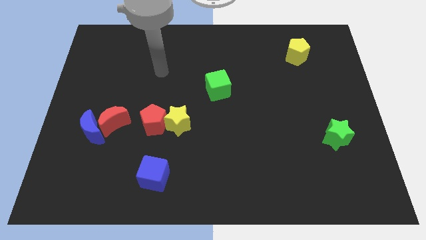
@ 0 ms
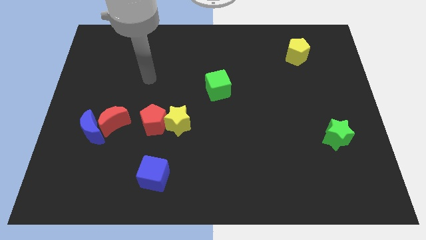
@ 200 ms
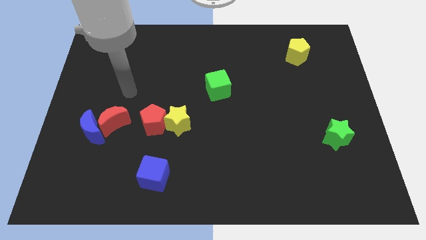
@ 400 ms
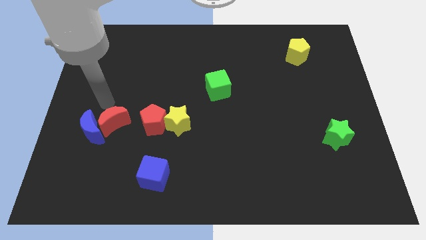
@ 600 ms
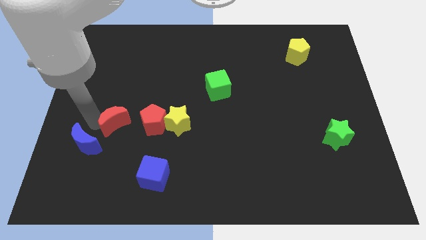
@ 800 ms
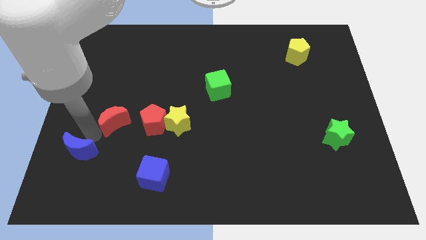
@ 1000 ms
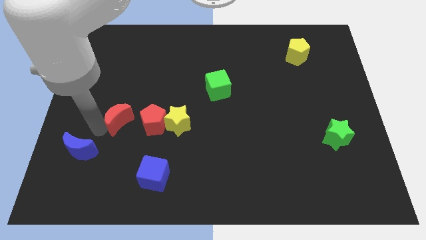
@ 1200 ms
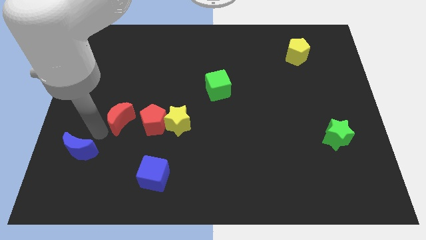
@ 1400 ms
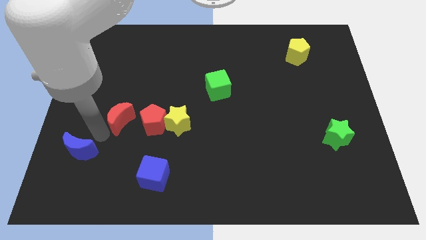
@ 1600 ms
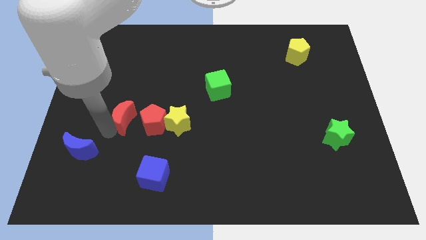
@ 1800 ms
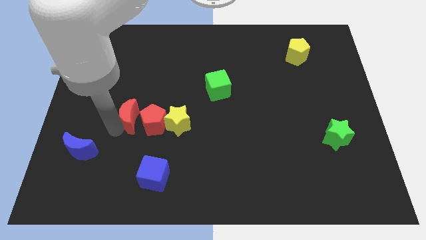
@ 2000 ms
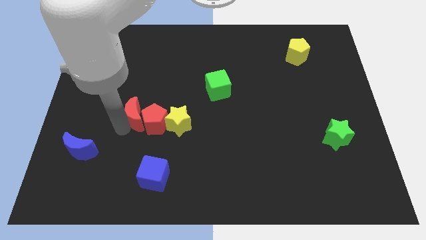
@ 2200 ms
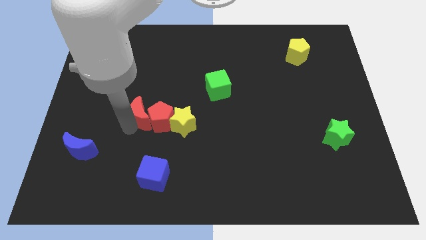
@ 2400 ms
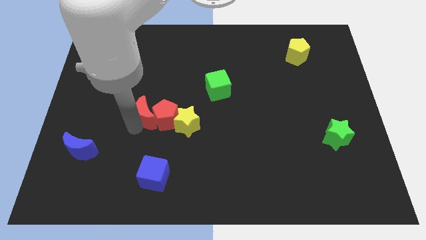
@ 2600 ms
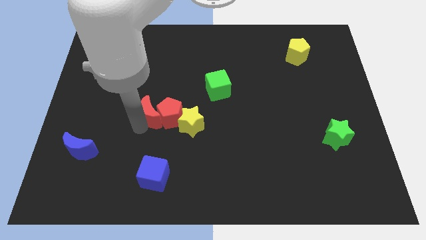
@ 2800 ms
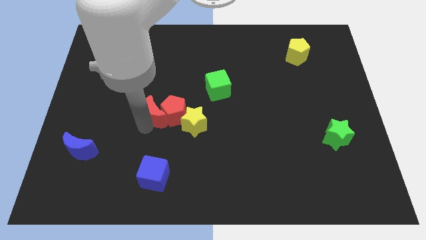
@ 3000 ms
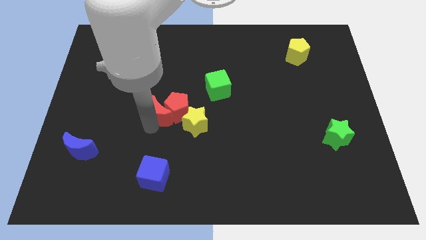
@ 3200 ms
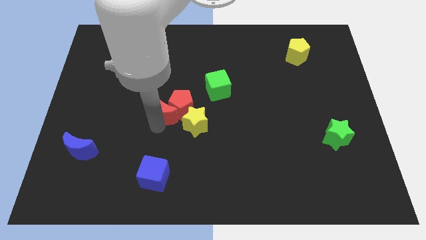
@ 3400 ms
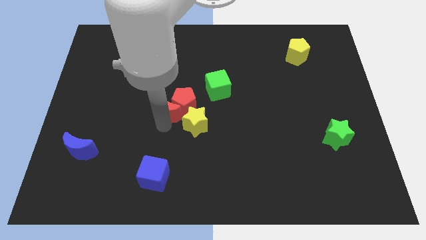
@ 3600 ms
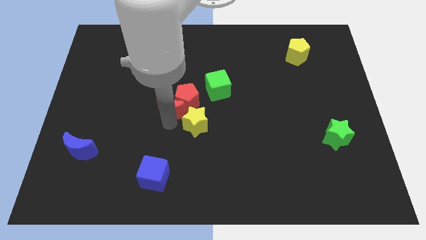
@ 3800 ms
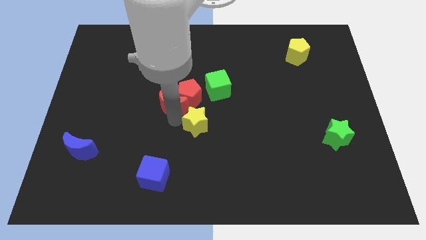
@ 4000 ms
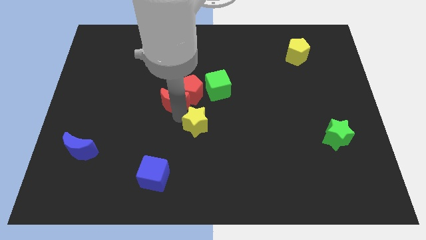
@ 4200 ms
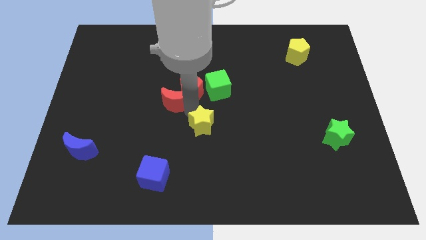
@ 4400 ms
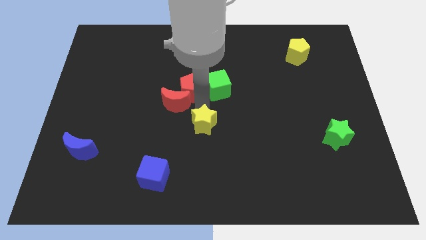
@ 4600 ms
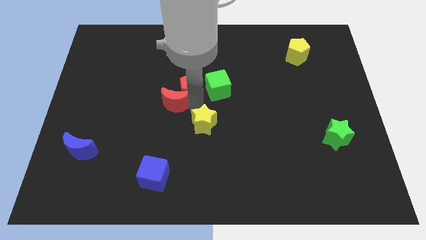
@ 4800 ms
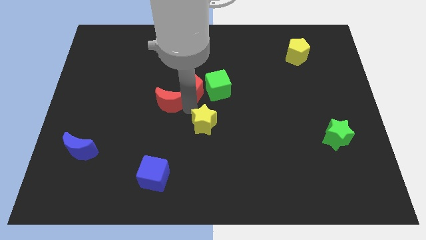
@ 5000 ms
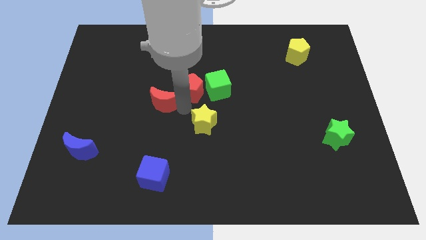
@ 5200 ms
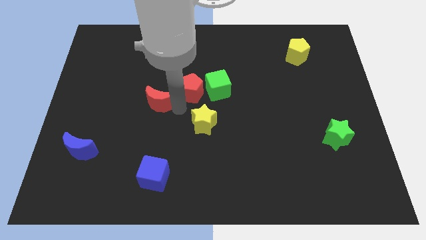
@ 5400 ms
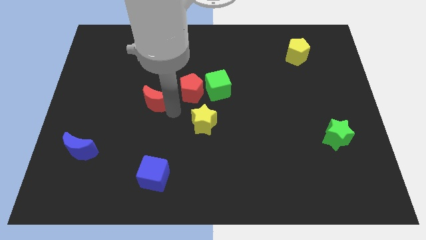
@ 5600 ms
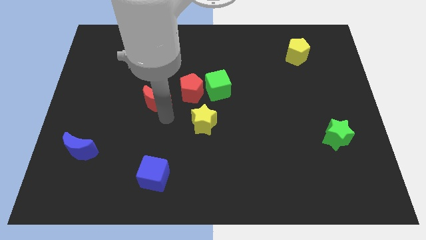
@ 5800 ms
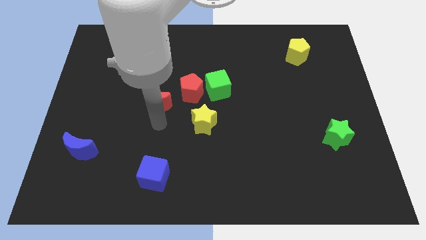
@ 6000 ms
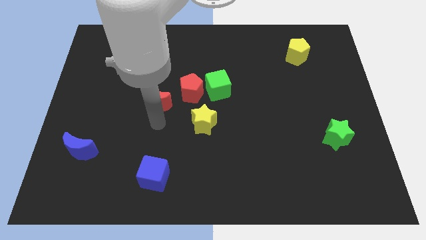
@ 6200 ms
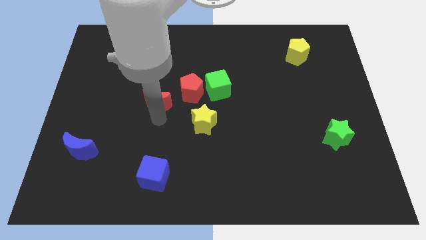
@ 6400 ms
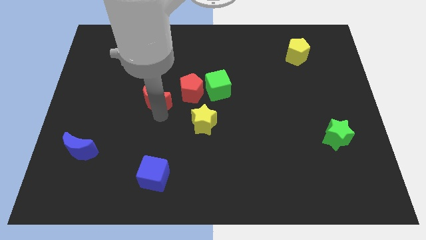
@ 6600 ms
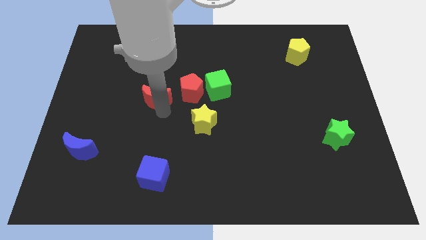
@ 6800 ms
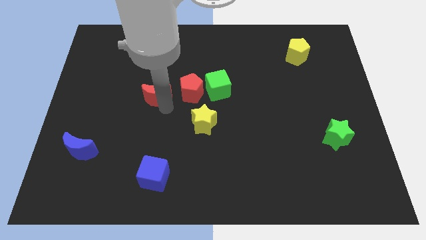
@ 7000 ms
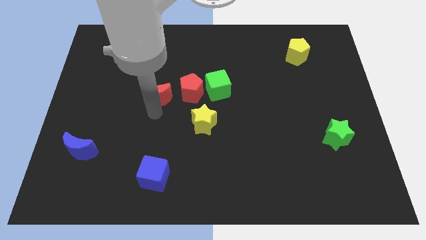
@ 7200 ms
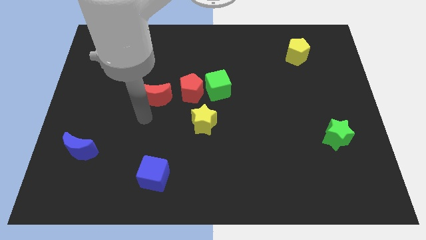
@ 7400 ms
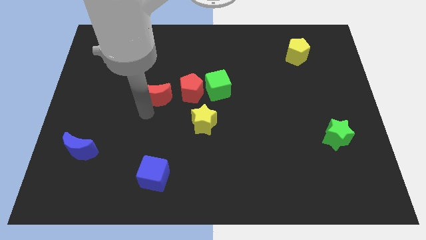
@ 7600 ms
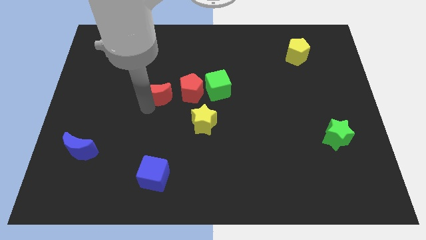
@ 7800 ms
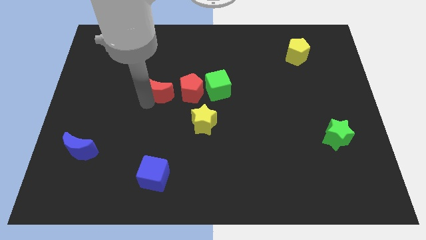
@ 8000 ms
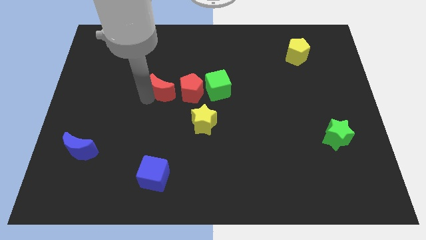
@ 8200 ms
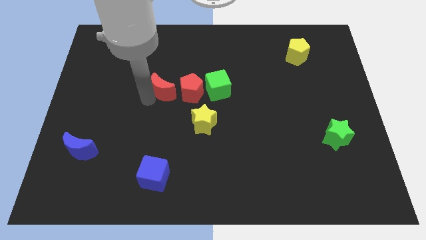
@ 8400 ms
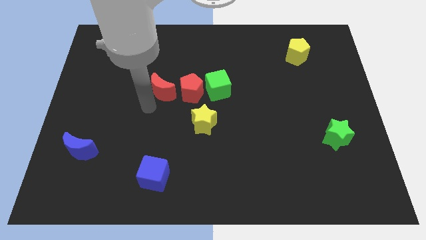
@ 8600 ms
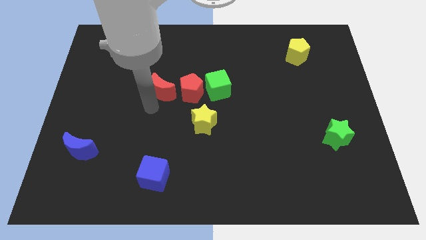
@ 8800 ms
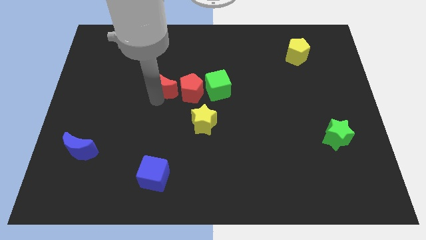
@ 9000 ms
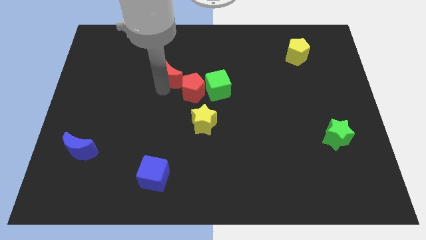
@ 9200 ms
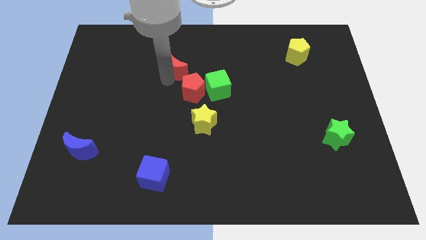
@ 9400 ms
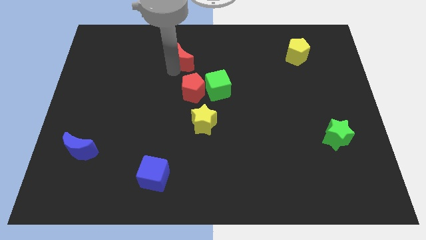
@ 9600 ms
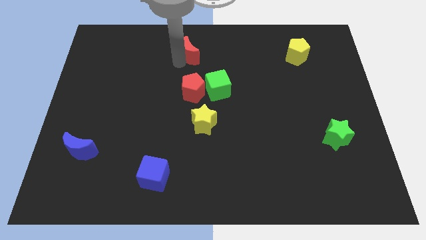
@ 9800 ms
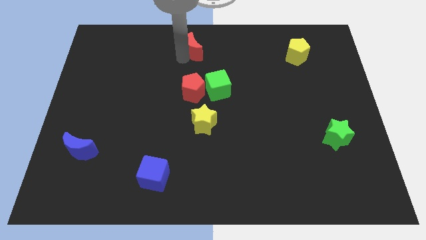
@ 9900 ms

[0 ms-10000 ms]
put the red moon to the top

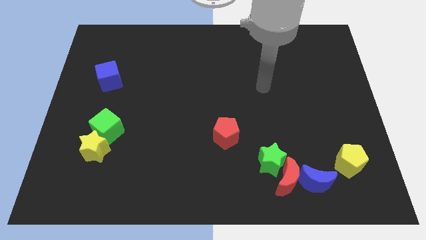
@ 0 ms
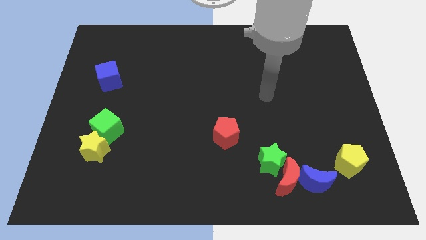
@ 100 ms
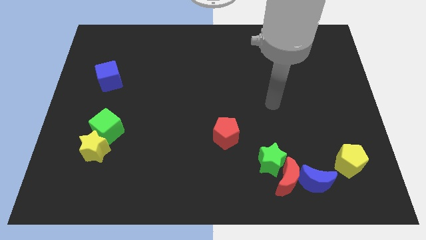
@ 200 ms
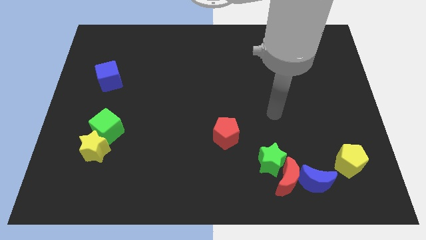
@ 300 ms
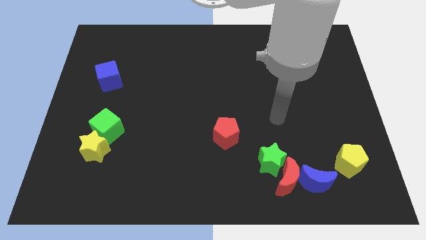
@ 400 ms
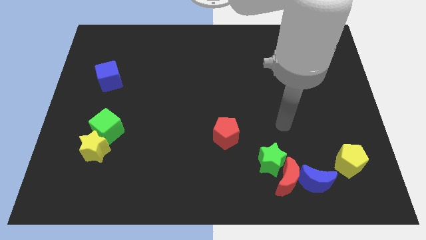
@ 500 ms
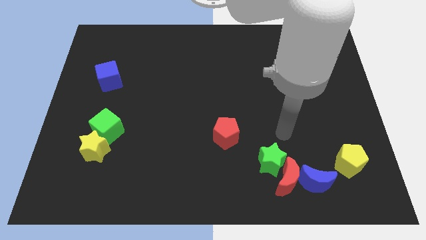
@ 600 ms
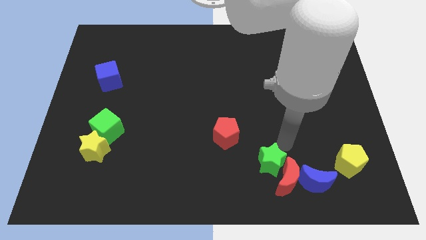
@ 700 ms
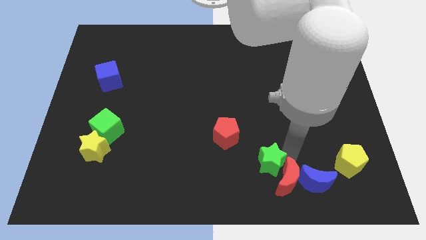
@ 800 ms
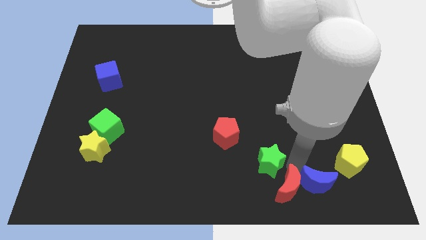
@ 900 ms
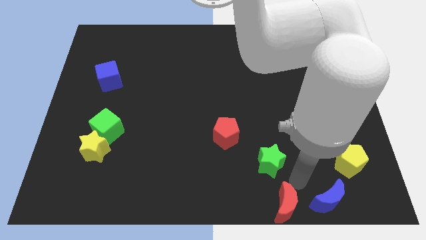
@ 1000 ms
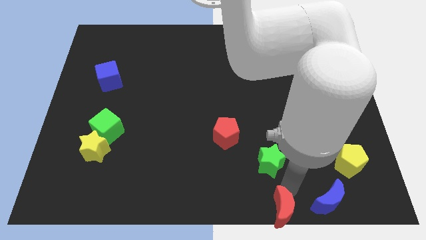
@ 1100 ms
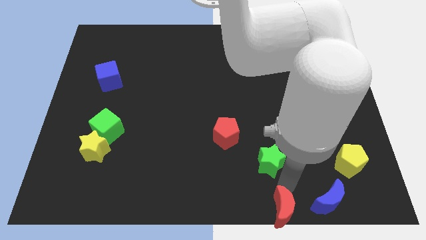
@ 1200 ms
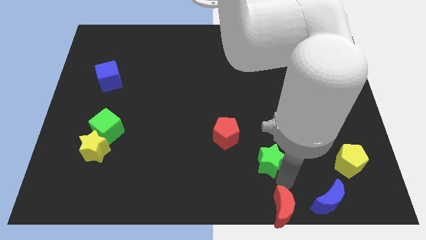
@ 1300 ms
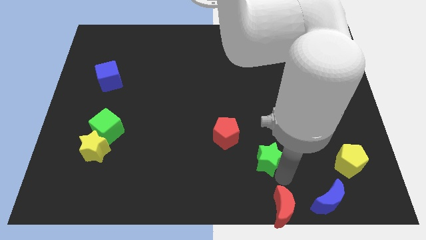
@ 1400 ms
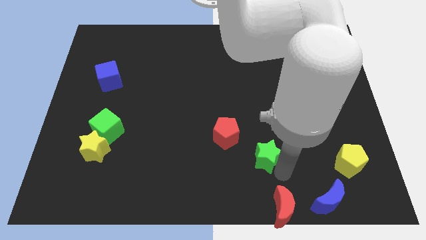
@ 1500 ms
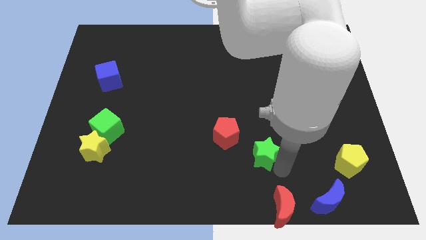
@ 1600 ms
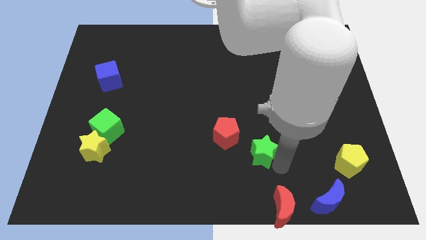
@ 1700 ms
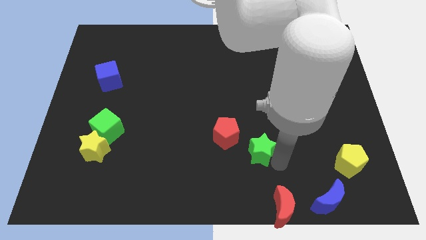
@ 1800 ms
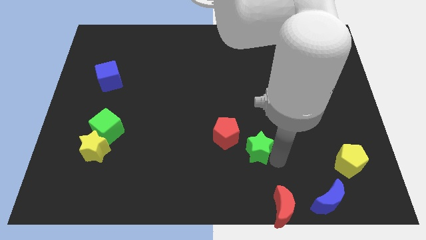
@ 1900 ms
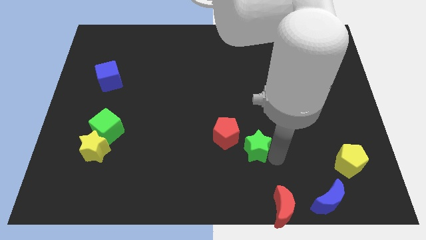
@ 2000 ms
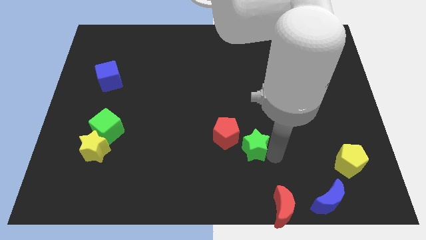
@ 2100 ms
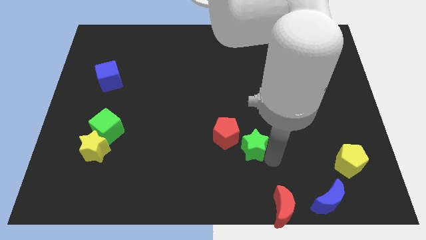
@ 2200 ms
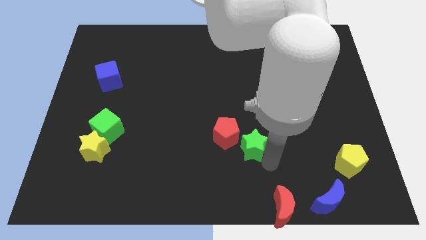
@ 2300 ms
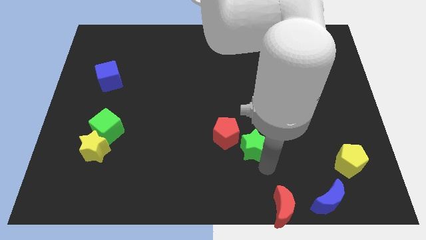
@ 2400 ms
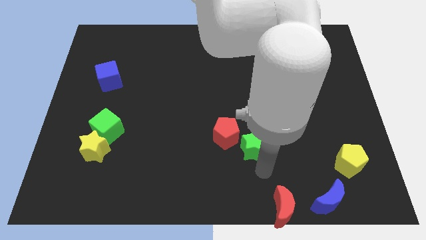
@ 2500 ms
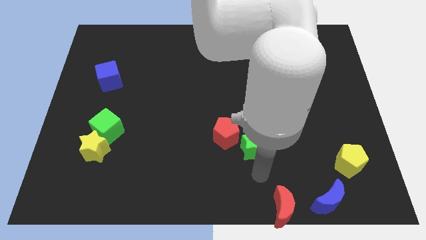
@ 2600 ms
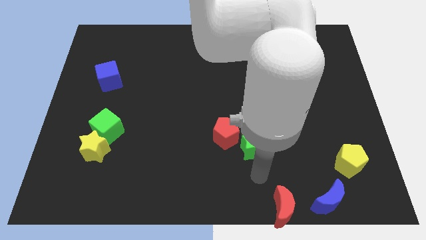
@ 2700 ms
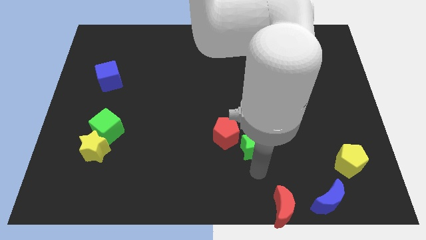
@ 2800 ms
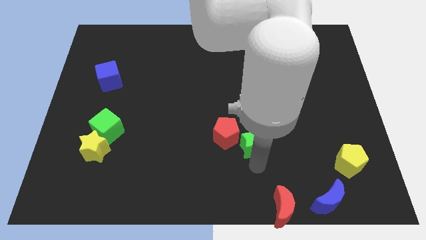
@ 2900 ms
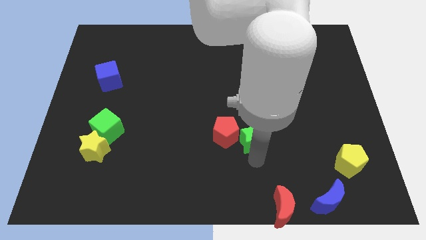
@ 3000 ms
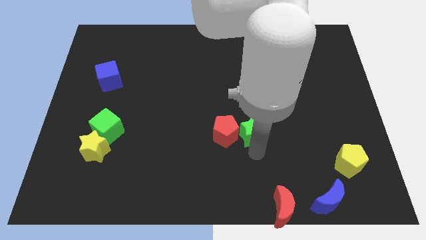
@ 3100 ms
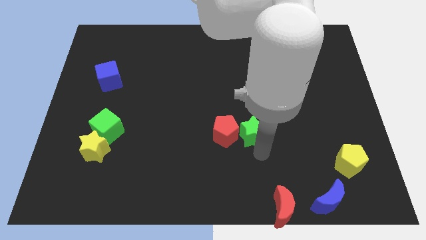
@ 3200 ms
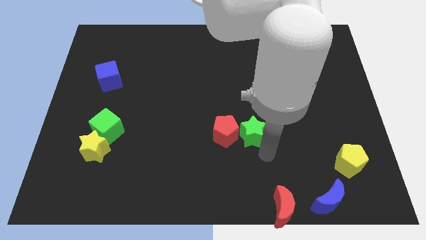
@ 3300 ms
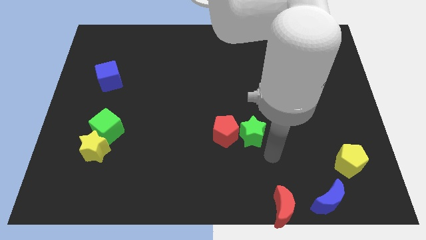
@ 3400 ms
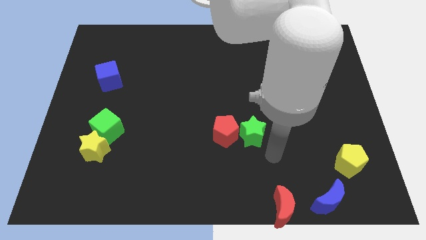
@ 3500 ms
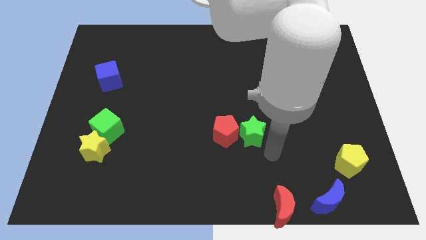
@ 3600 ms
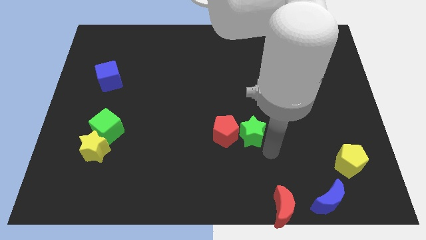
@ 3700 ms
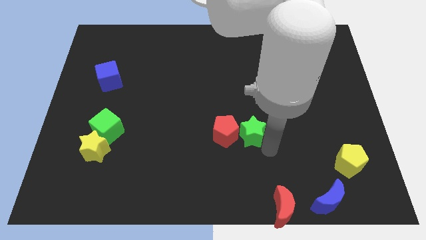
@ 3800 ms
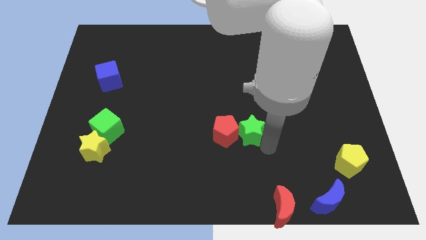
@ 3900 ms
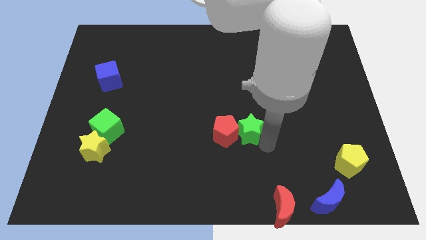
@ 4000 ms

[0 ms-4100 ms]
push the green star to the middle
